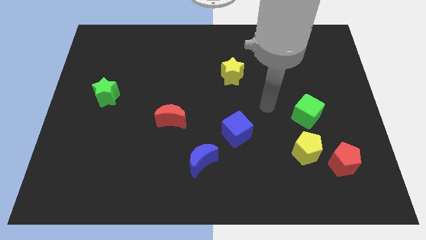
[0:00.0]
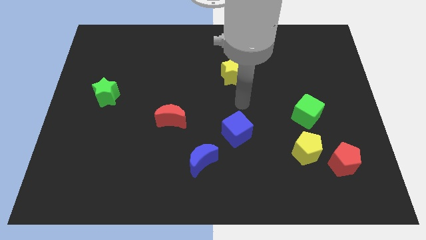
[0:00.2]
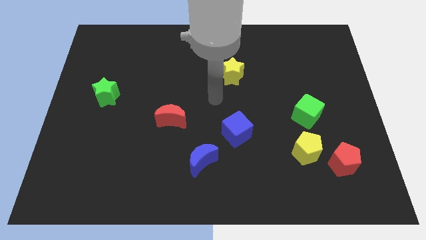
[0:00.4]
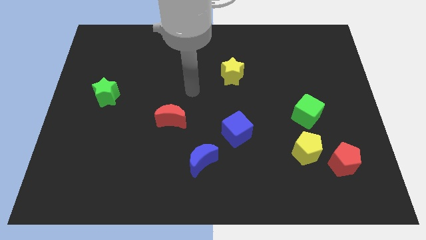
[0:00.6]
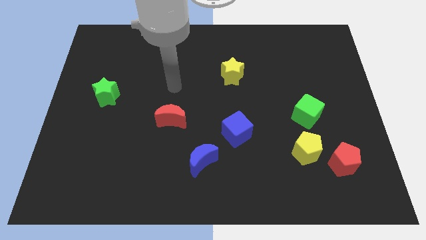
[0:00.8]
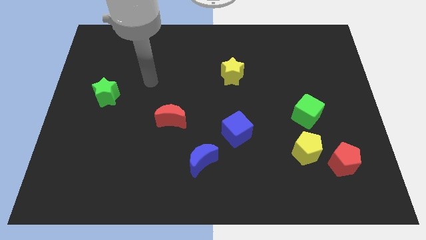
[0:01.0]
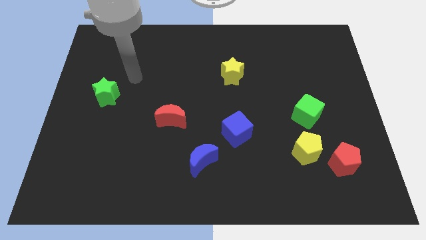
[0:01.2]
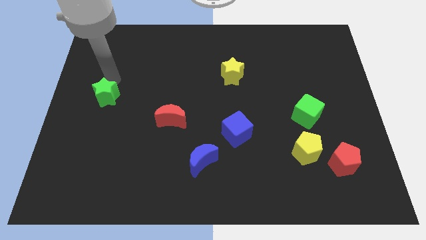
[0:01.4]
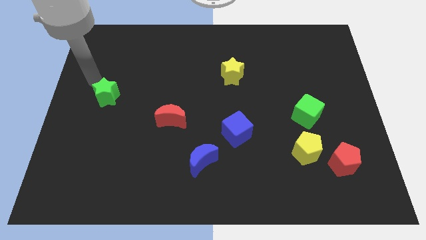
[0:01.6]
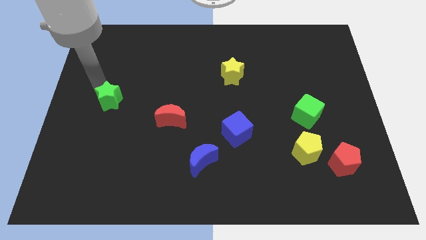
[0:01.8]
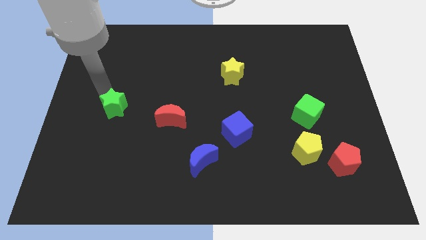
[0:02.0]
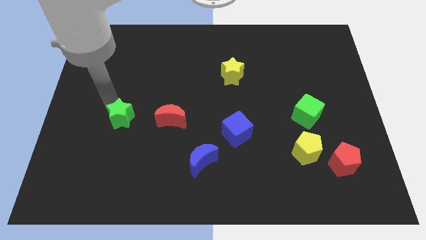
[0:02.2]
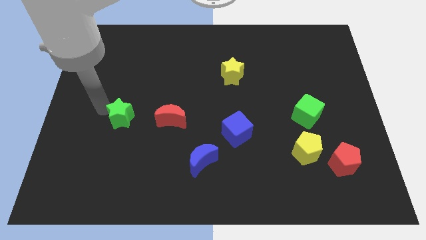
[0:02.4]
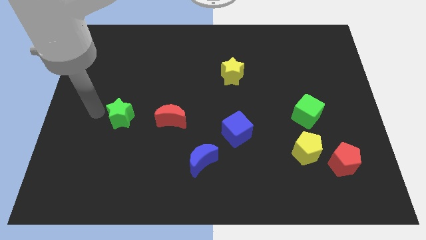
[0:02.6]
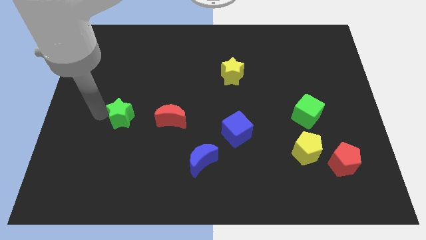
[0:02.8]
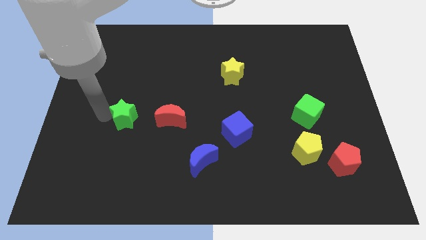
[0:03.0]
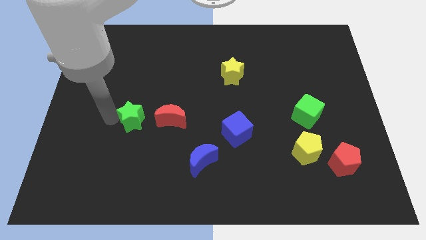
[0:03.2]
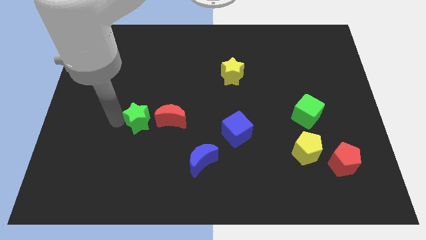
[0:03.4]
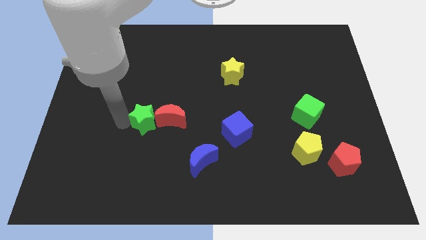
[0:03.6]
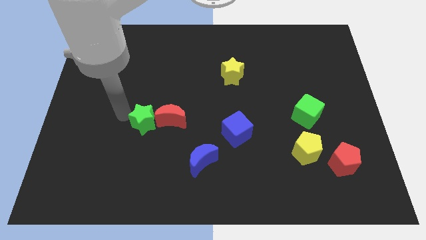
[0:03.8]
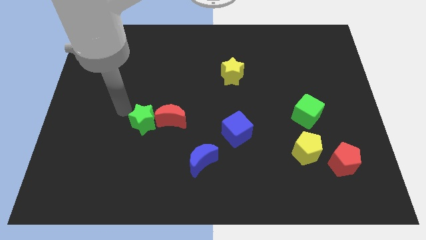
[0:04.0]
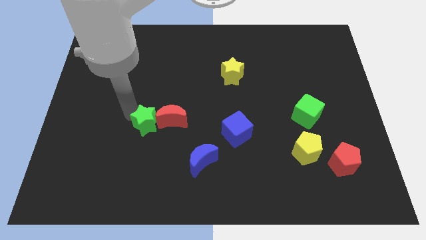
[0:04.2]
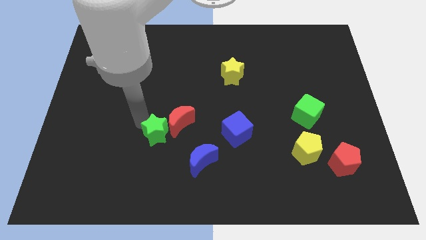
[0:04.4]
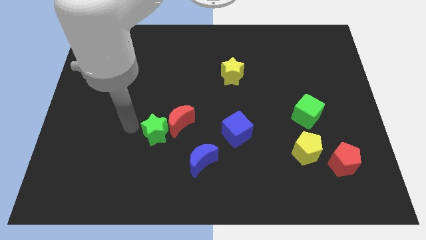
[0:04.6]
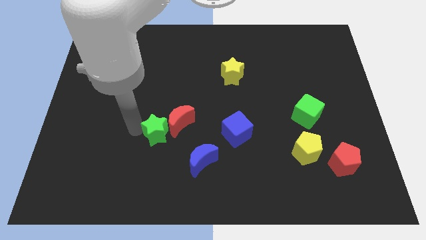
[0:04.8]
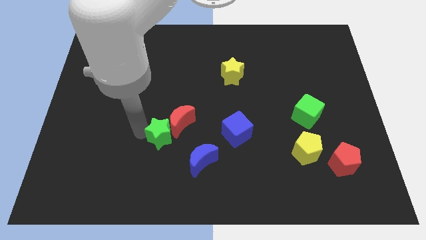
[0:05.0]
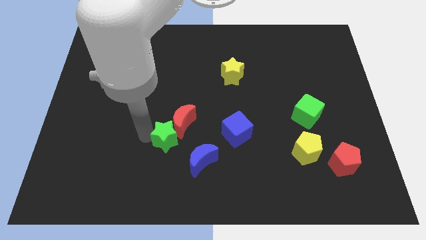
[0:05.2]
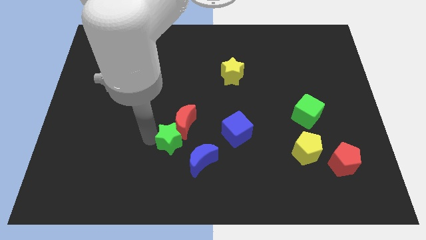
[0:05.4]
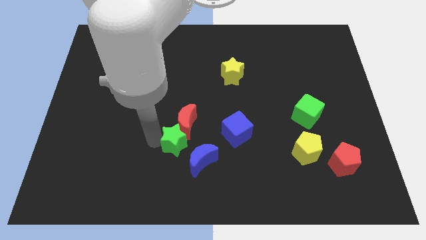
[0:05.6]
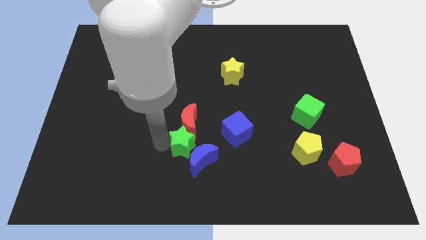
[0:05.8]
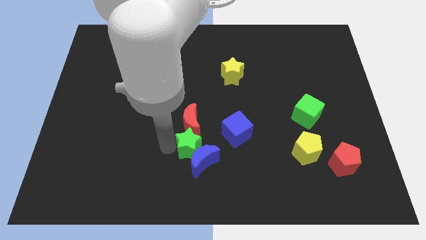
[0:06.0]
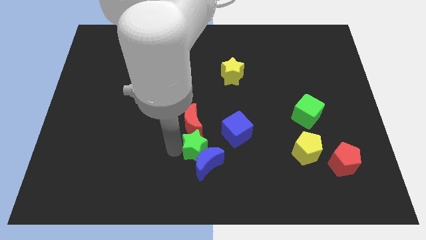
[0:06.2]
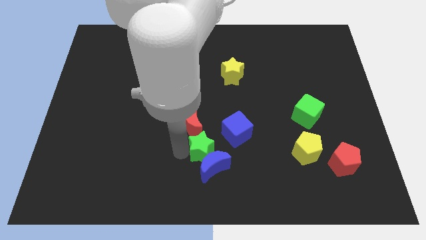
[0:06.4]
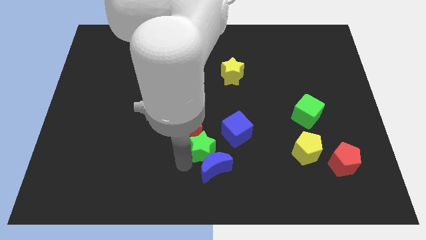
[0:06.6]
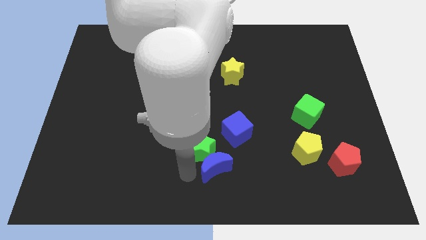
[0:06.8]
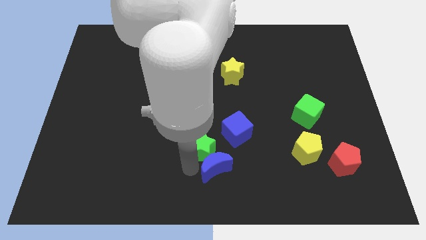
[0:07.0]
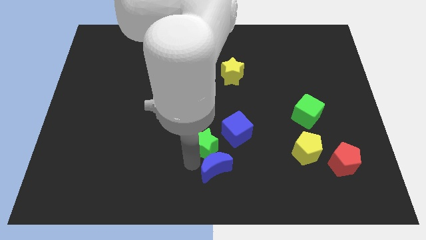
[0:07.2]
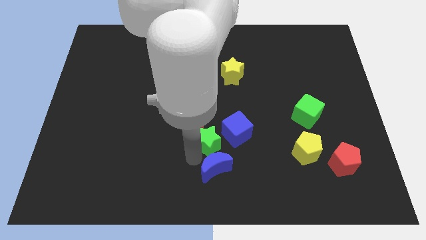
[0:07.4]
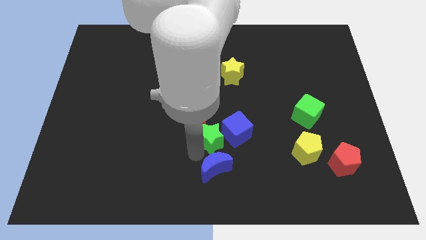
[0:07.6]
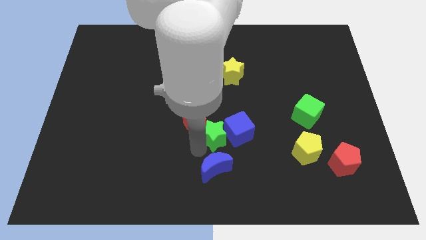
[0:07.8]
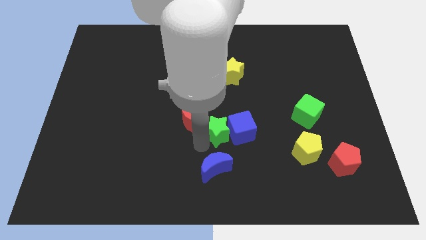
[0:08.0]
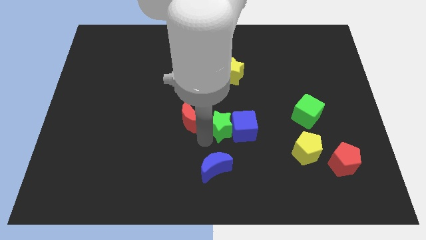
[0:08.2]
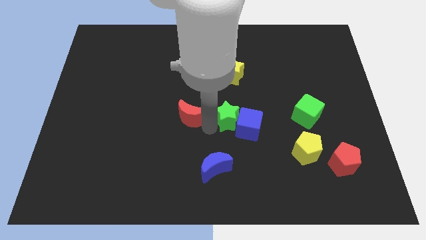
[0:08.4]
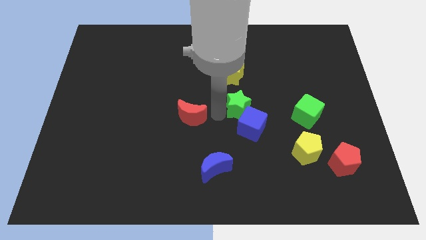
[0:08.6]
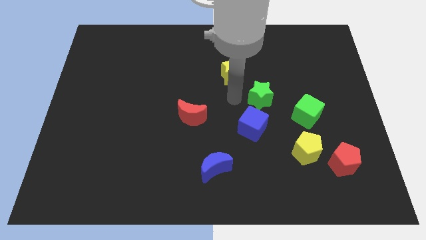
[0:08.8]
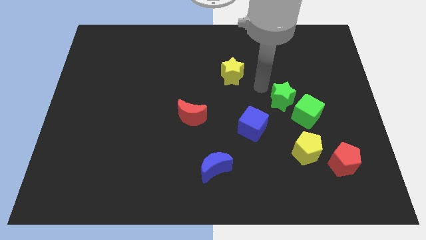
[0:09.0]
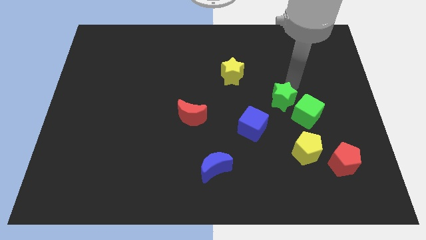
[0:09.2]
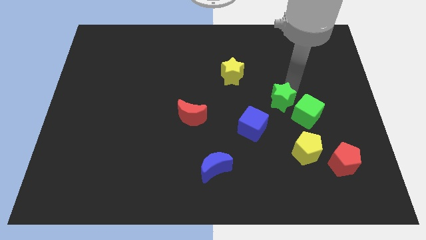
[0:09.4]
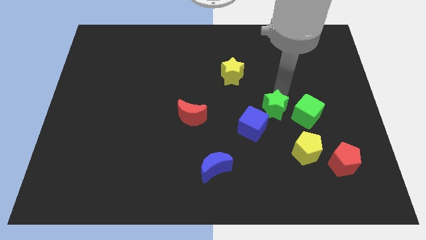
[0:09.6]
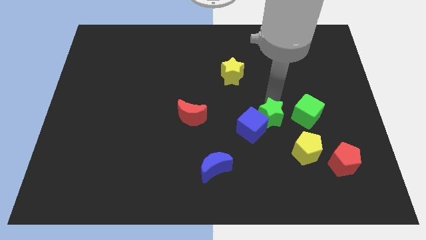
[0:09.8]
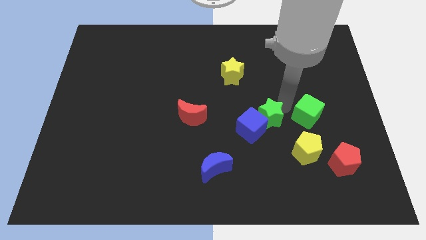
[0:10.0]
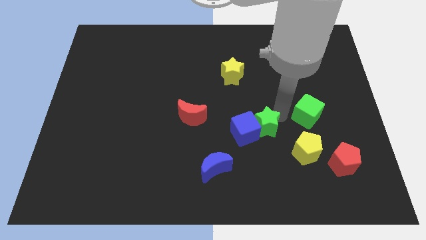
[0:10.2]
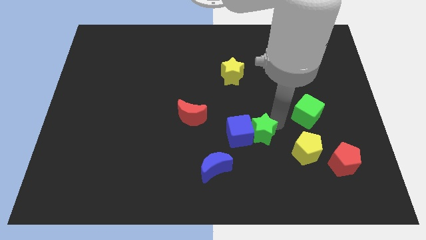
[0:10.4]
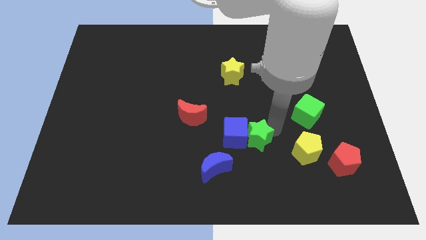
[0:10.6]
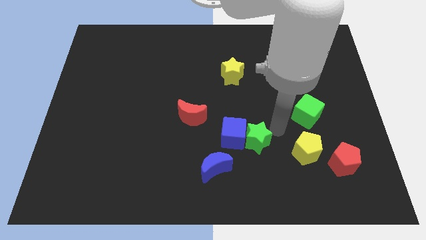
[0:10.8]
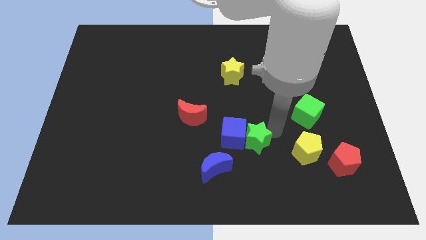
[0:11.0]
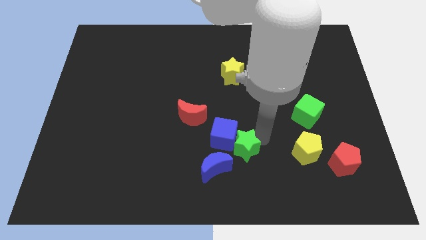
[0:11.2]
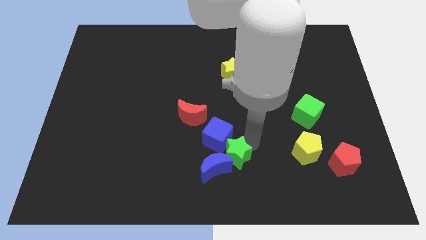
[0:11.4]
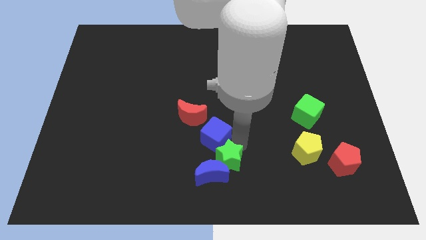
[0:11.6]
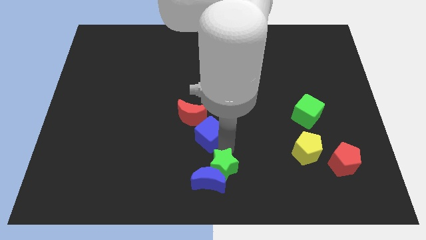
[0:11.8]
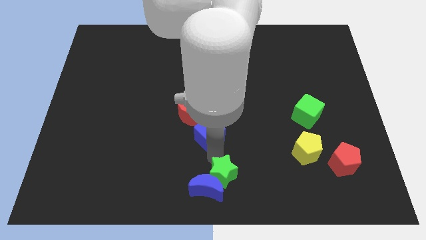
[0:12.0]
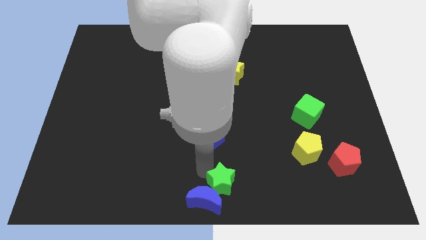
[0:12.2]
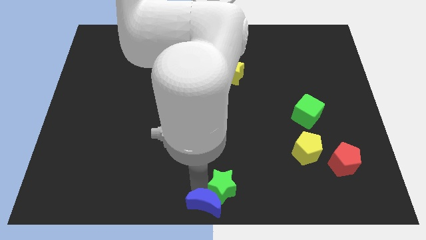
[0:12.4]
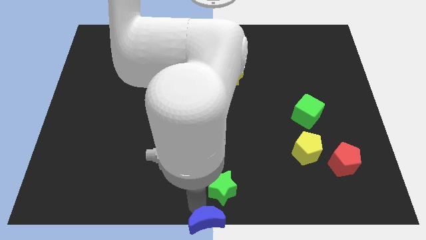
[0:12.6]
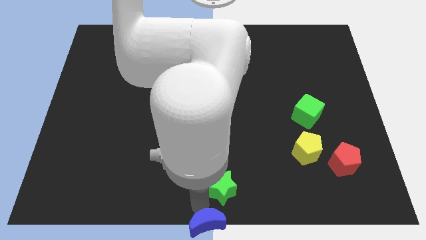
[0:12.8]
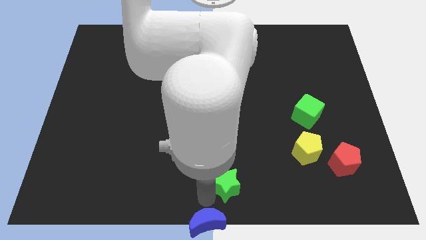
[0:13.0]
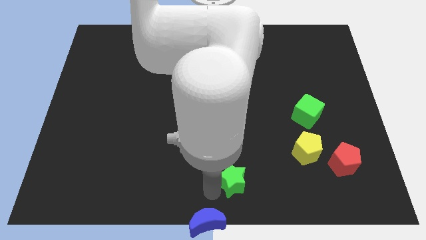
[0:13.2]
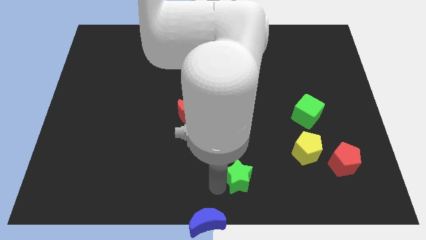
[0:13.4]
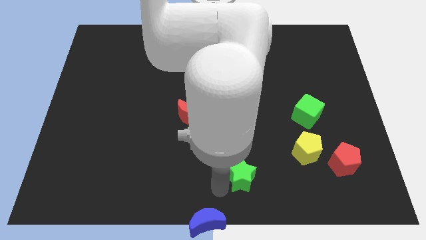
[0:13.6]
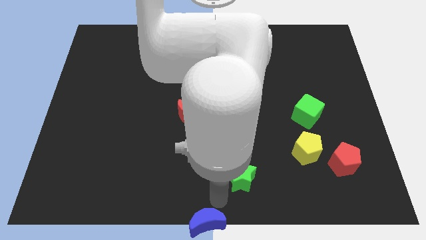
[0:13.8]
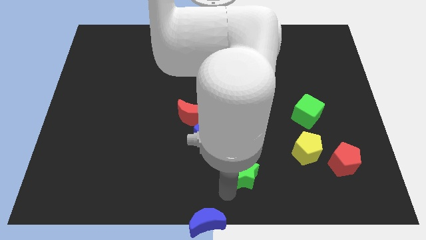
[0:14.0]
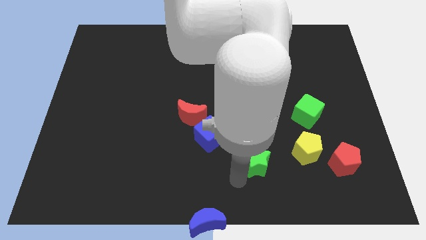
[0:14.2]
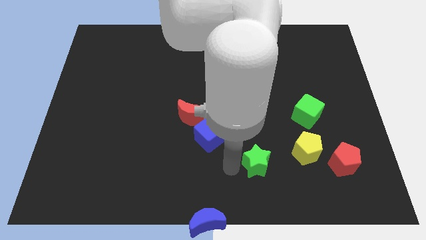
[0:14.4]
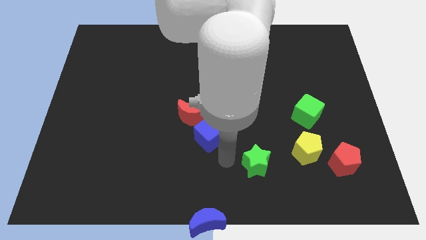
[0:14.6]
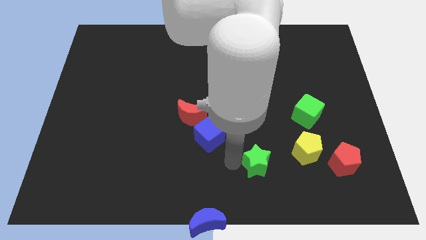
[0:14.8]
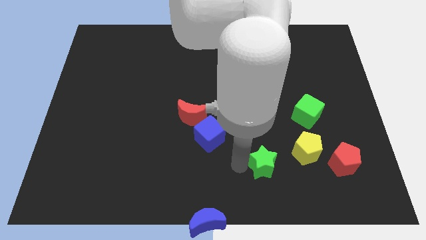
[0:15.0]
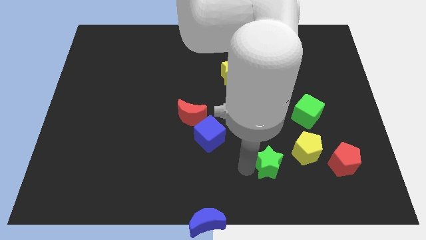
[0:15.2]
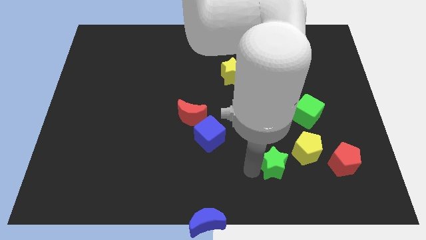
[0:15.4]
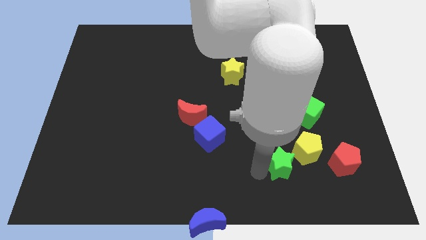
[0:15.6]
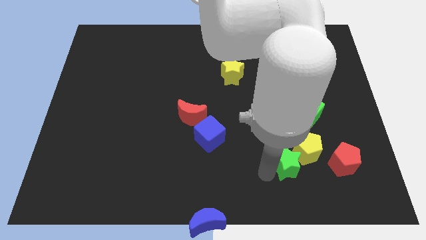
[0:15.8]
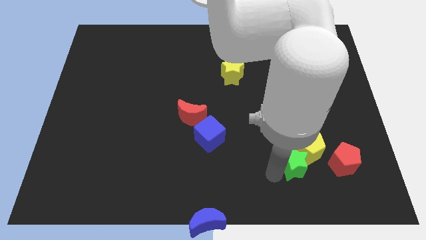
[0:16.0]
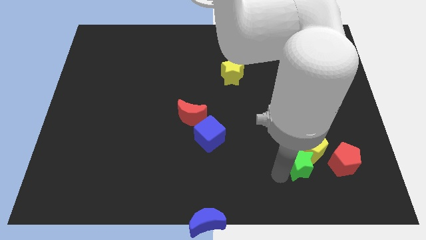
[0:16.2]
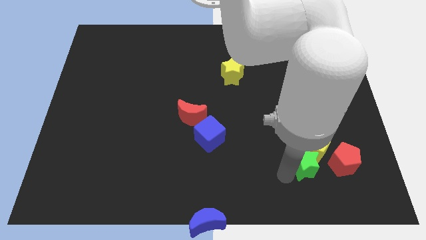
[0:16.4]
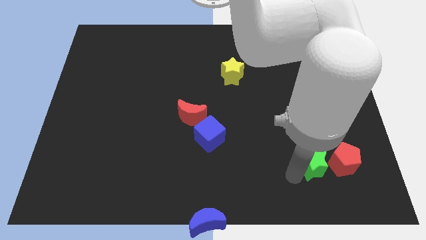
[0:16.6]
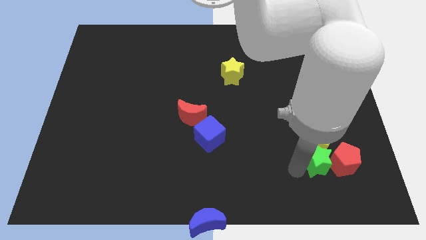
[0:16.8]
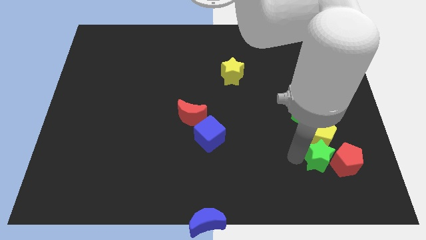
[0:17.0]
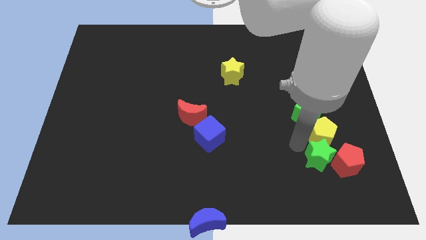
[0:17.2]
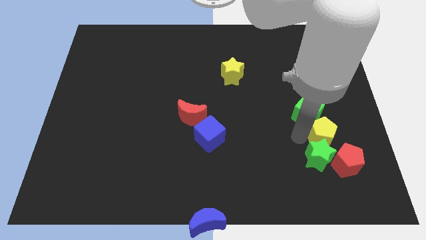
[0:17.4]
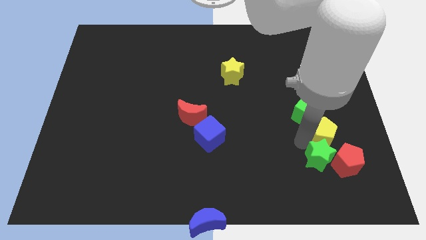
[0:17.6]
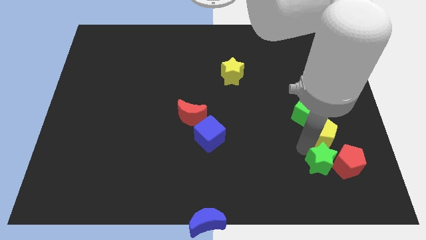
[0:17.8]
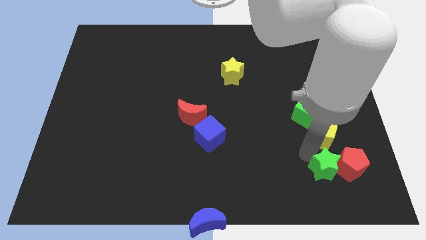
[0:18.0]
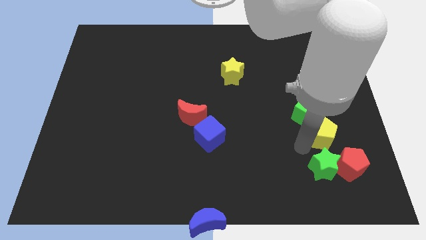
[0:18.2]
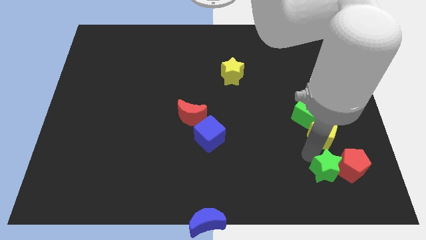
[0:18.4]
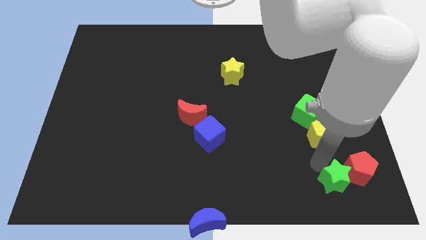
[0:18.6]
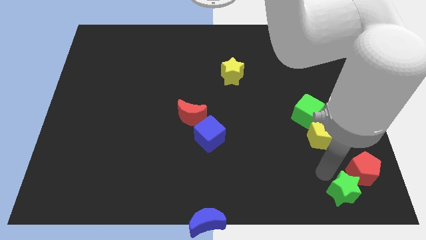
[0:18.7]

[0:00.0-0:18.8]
slide the green star to the bottom right of the board
